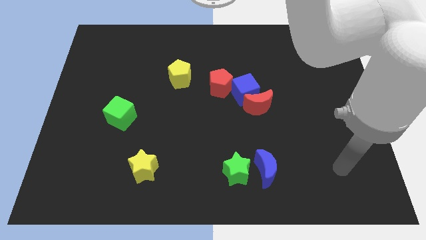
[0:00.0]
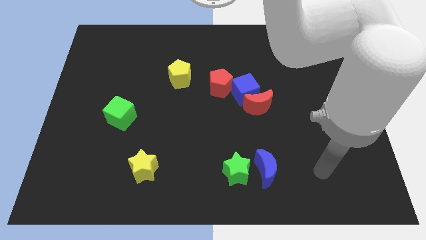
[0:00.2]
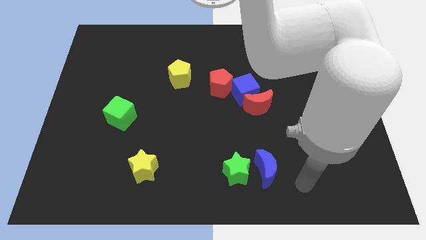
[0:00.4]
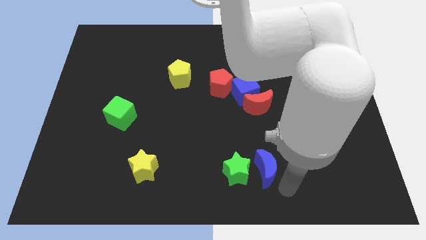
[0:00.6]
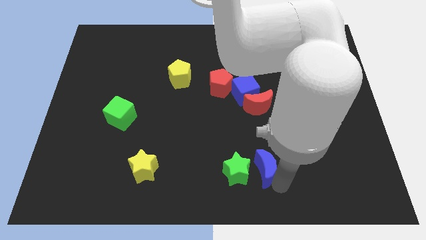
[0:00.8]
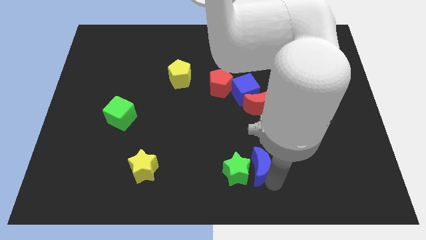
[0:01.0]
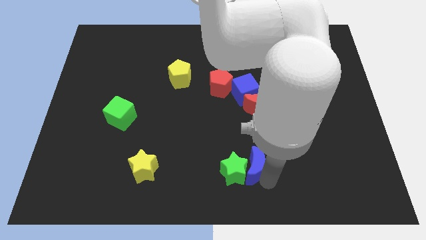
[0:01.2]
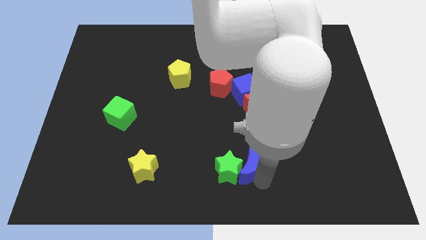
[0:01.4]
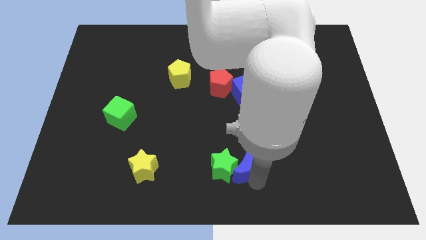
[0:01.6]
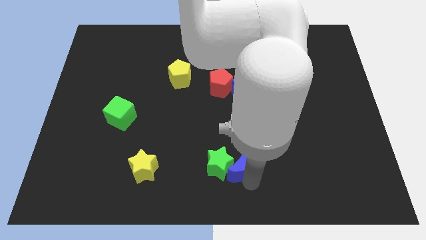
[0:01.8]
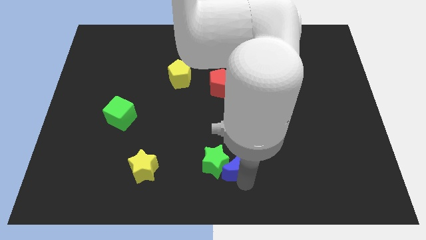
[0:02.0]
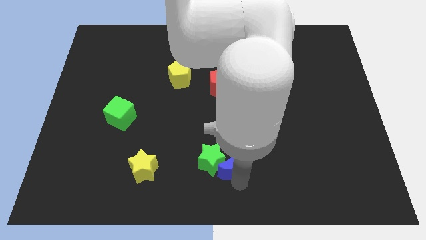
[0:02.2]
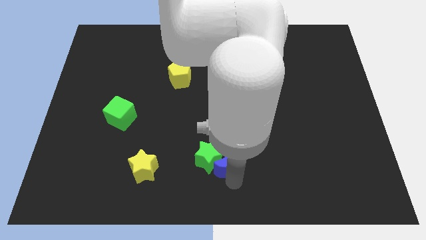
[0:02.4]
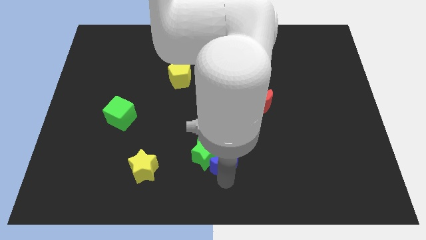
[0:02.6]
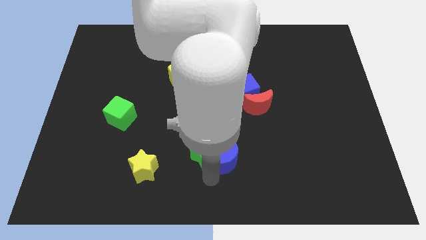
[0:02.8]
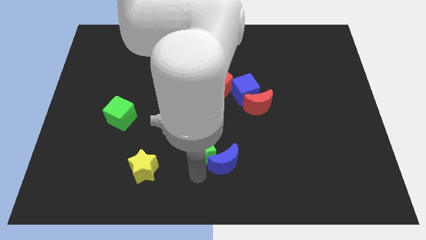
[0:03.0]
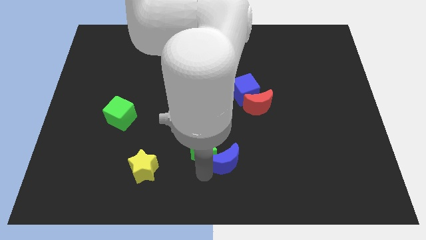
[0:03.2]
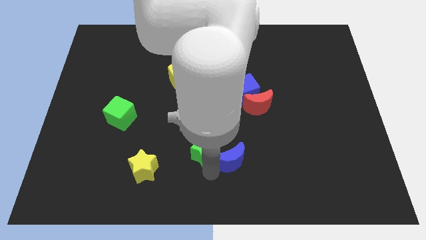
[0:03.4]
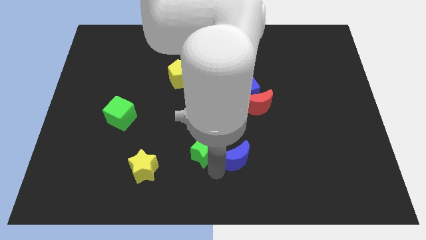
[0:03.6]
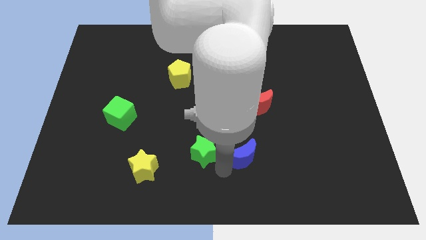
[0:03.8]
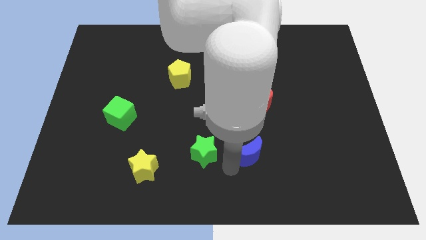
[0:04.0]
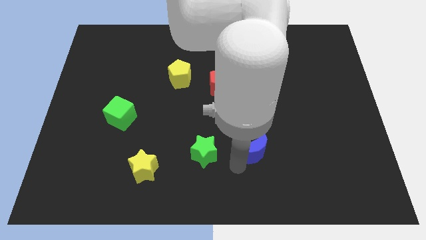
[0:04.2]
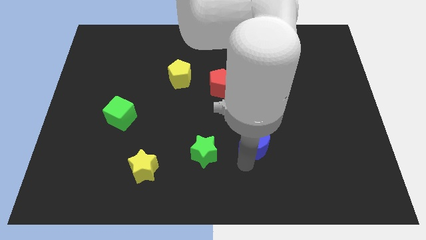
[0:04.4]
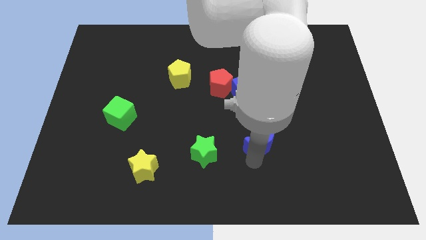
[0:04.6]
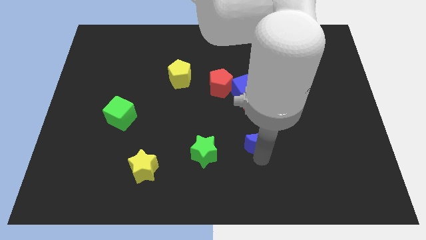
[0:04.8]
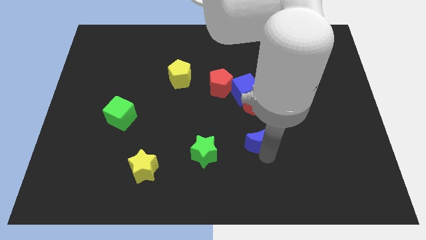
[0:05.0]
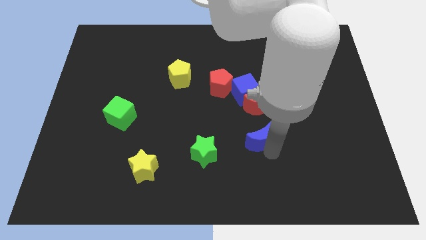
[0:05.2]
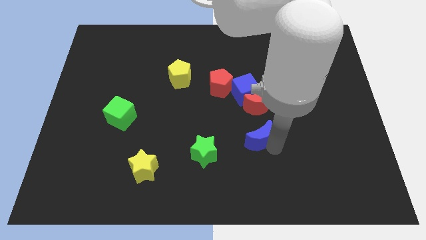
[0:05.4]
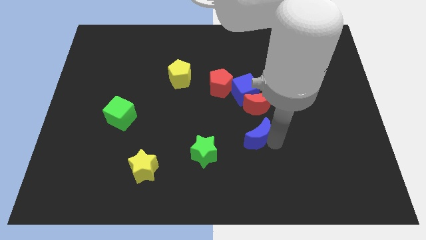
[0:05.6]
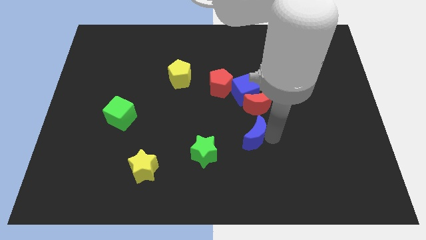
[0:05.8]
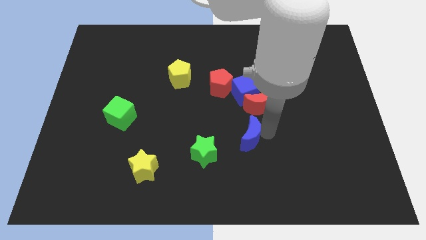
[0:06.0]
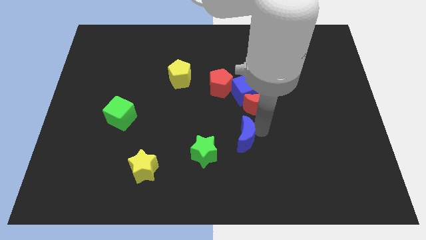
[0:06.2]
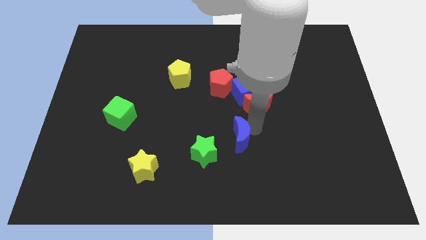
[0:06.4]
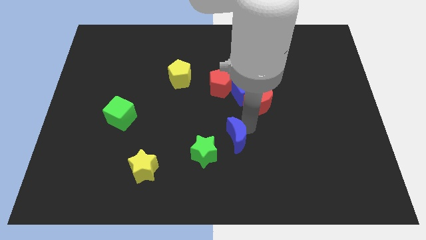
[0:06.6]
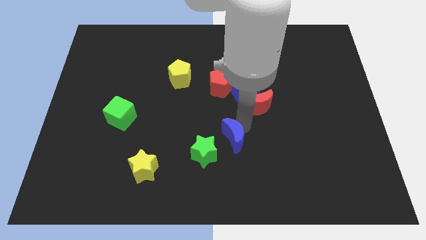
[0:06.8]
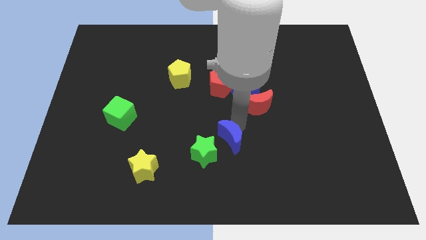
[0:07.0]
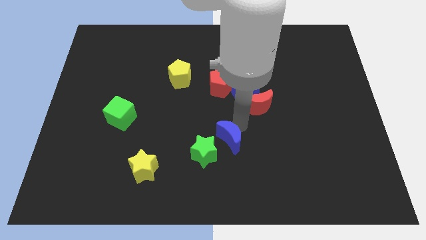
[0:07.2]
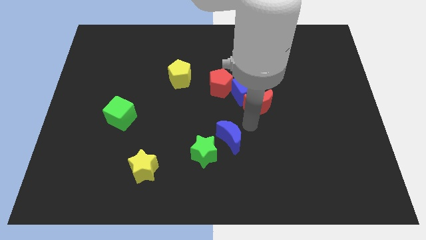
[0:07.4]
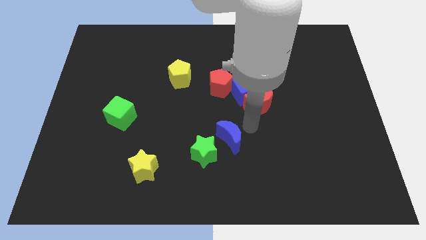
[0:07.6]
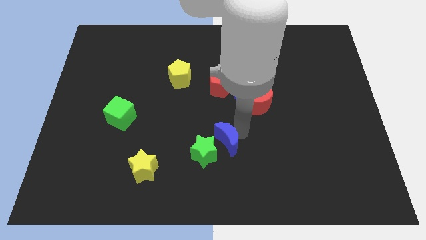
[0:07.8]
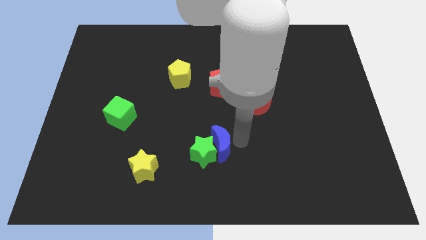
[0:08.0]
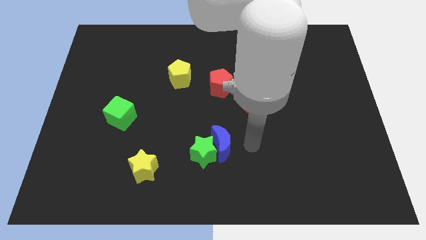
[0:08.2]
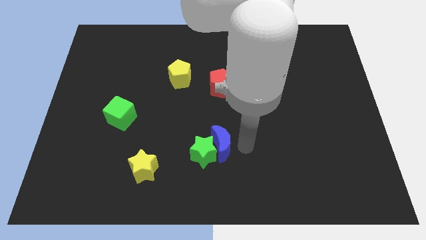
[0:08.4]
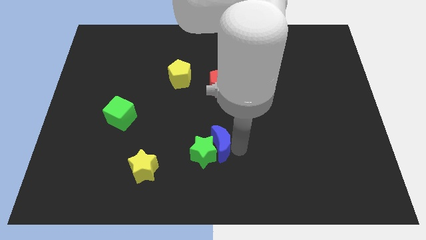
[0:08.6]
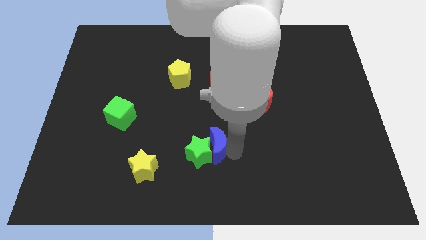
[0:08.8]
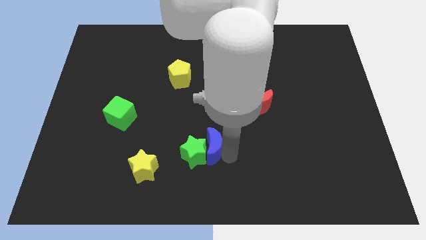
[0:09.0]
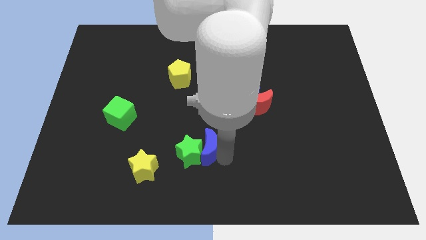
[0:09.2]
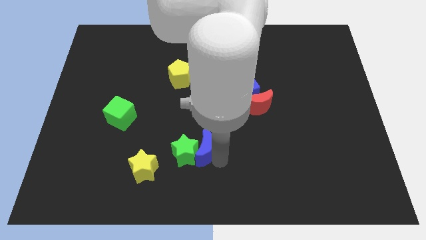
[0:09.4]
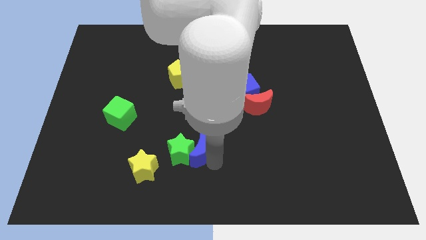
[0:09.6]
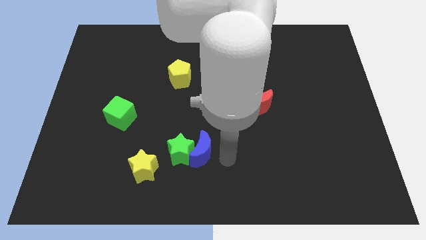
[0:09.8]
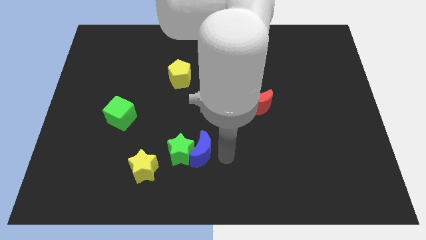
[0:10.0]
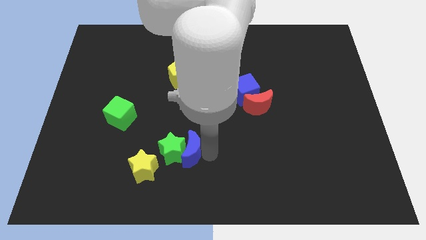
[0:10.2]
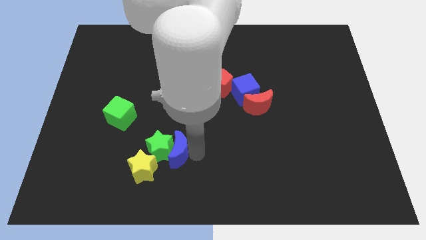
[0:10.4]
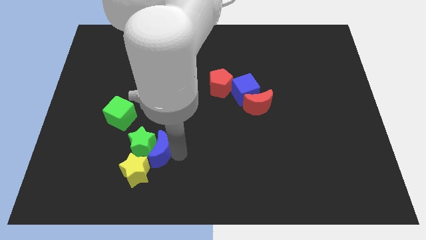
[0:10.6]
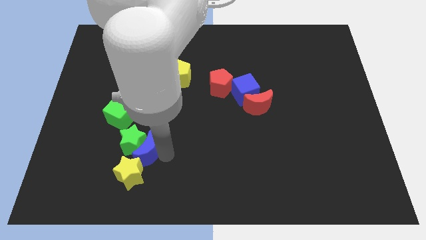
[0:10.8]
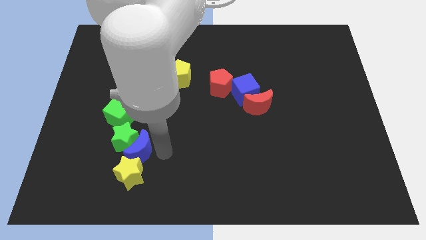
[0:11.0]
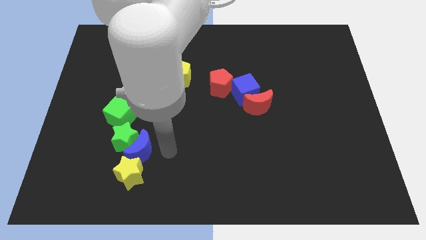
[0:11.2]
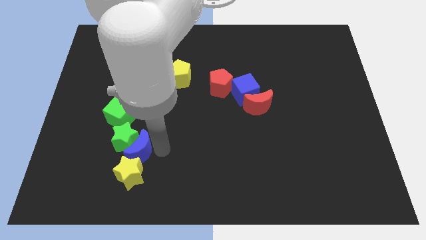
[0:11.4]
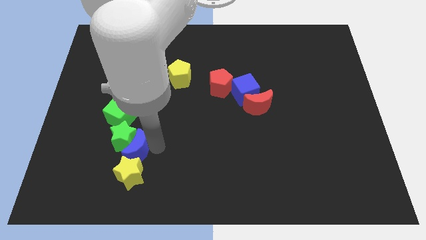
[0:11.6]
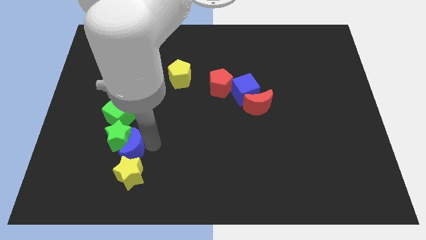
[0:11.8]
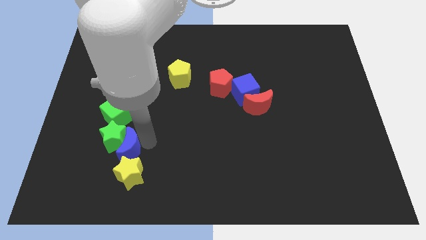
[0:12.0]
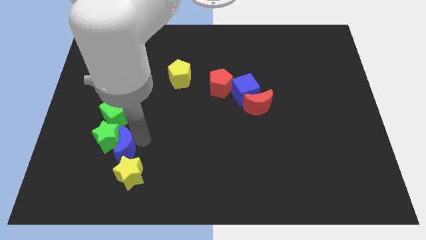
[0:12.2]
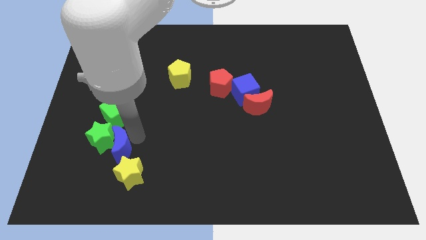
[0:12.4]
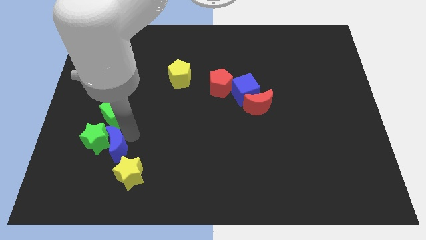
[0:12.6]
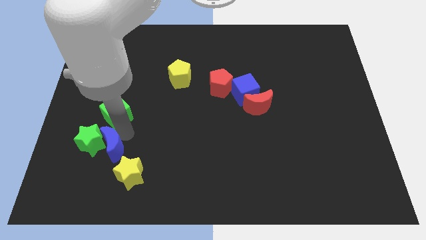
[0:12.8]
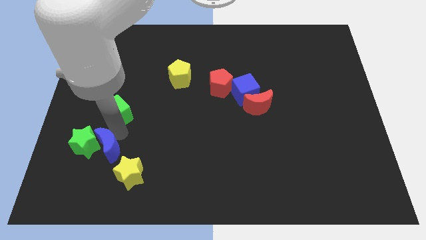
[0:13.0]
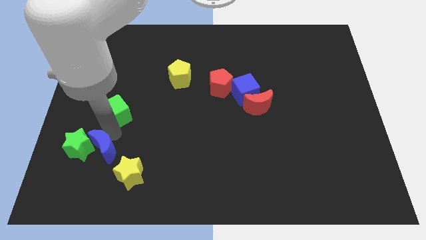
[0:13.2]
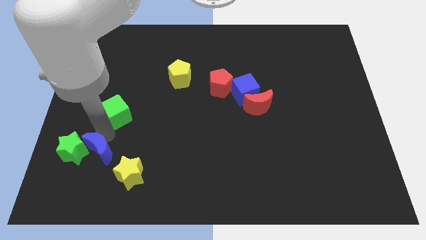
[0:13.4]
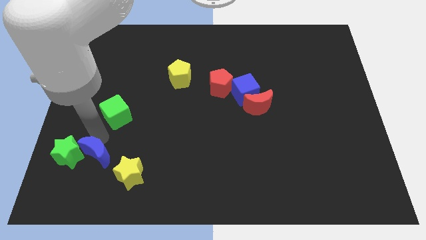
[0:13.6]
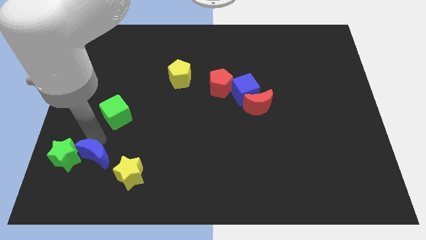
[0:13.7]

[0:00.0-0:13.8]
put the blue moon to the left side of the yellow star
